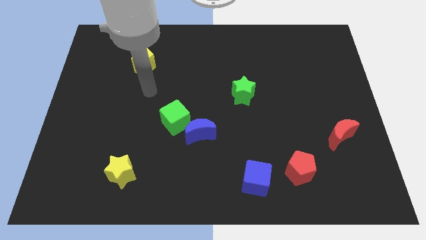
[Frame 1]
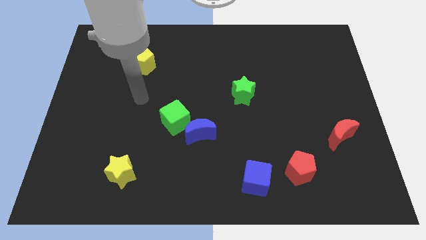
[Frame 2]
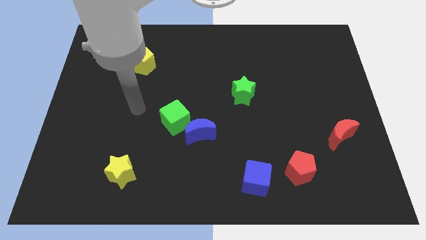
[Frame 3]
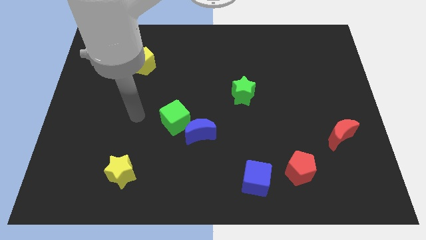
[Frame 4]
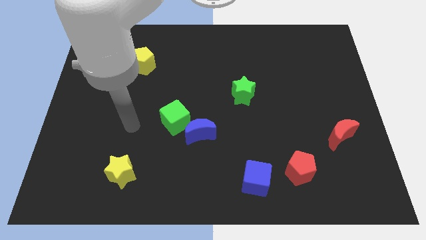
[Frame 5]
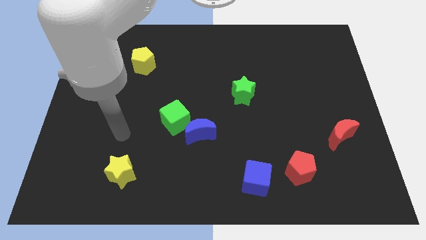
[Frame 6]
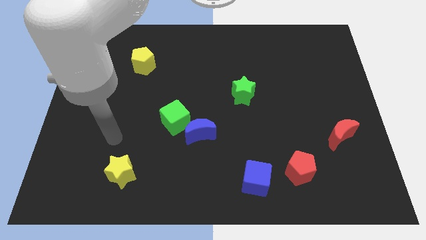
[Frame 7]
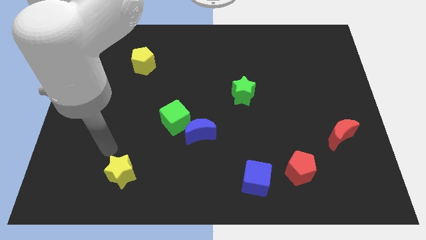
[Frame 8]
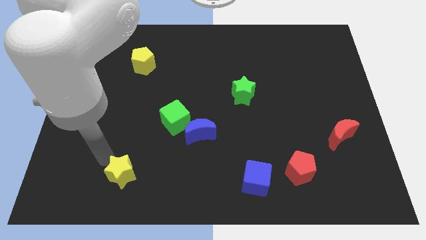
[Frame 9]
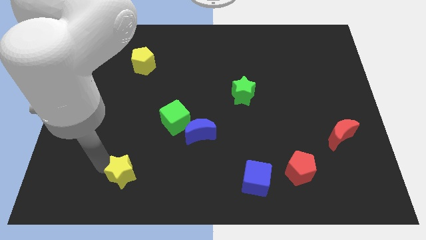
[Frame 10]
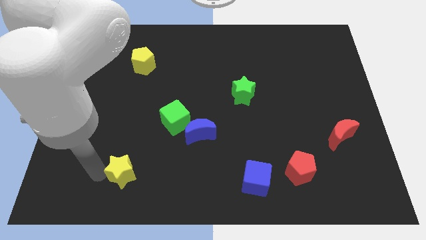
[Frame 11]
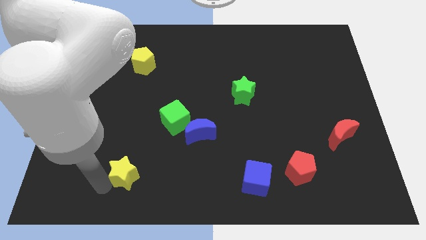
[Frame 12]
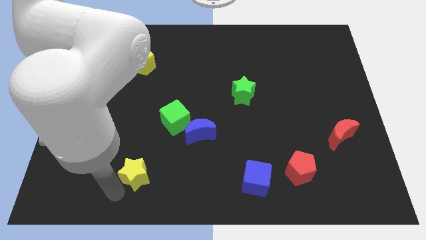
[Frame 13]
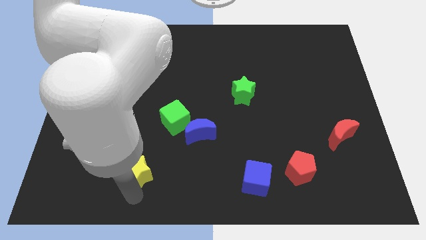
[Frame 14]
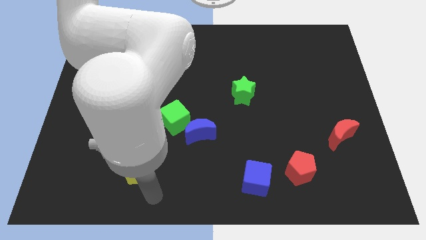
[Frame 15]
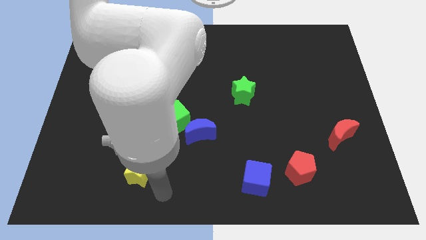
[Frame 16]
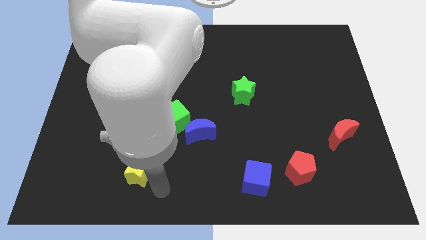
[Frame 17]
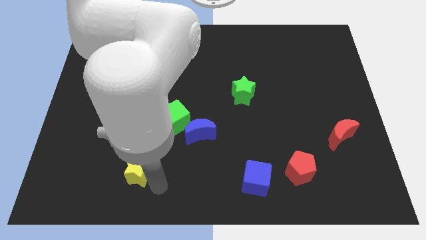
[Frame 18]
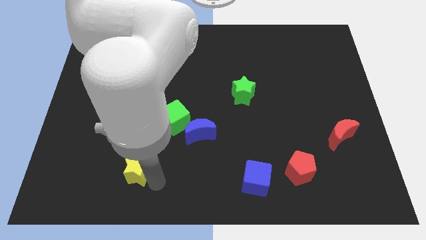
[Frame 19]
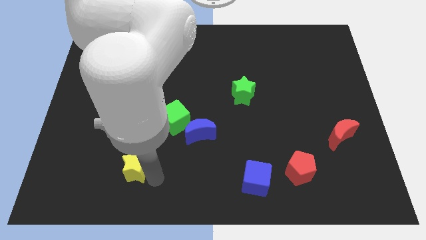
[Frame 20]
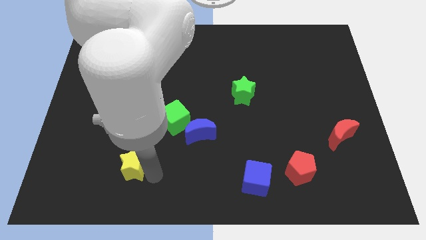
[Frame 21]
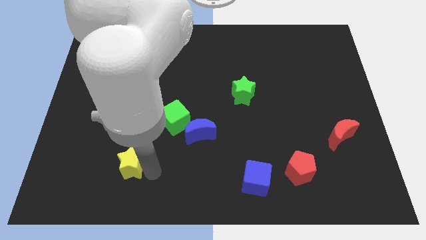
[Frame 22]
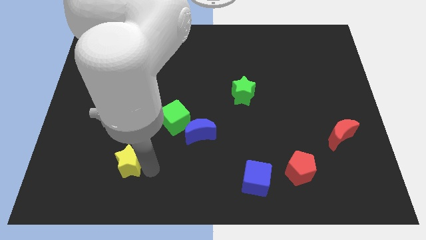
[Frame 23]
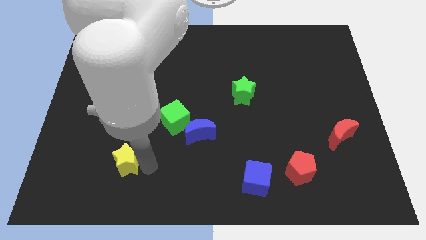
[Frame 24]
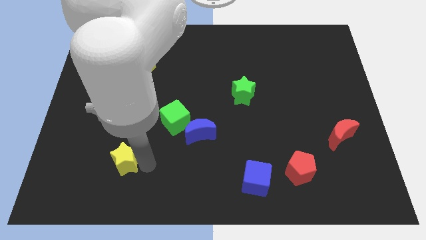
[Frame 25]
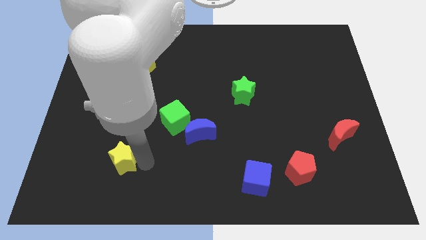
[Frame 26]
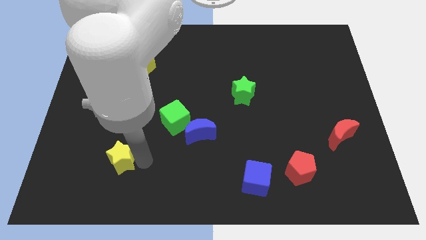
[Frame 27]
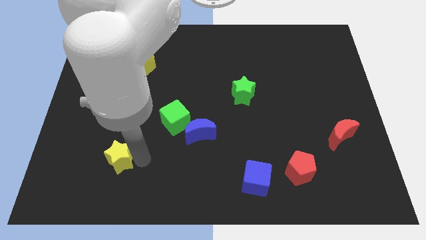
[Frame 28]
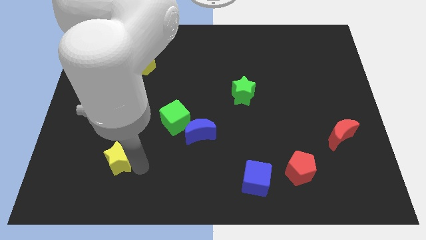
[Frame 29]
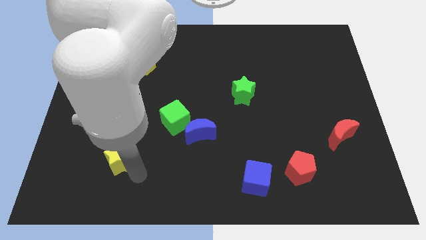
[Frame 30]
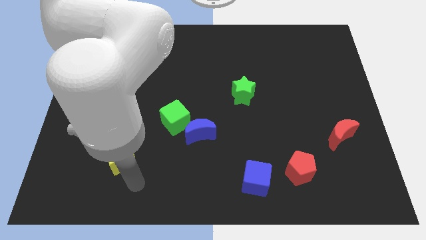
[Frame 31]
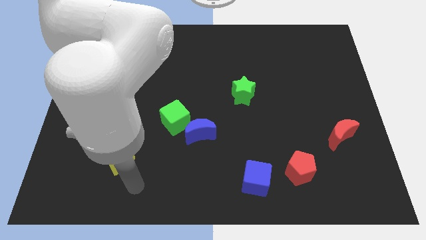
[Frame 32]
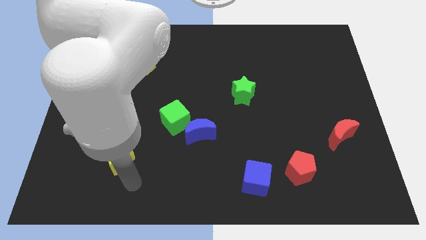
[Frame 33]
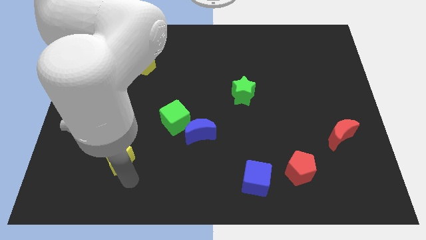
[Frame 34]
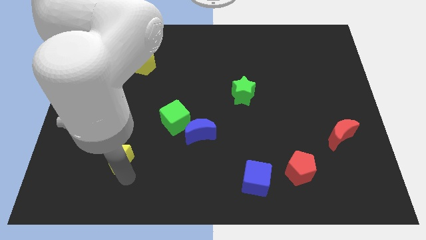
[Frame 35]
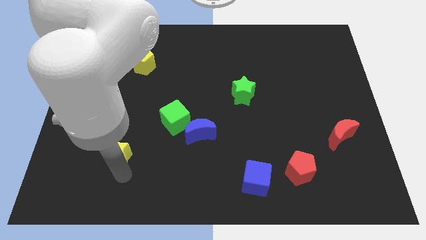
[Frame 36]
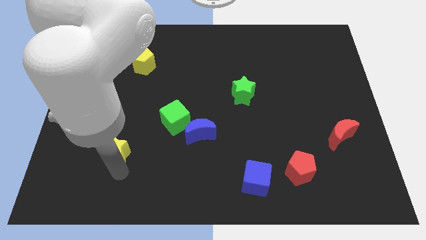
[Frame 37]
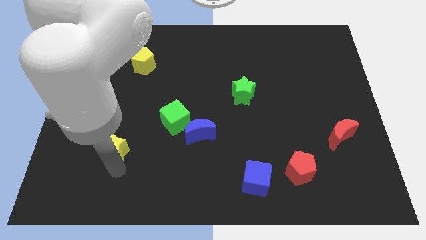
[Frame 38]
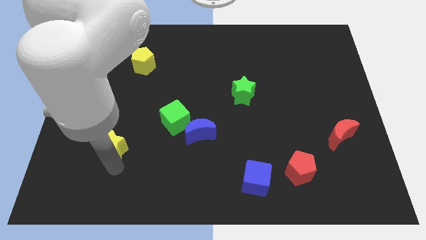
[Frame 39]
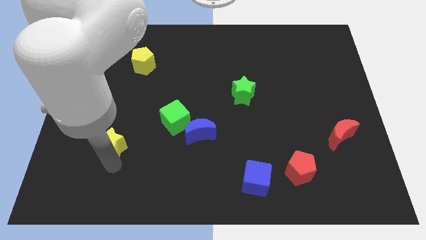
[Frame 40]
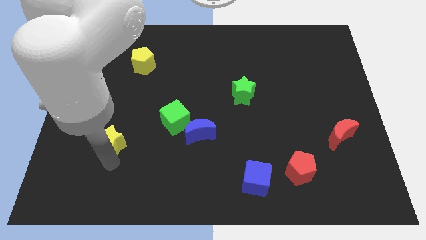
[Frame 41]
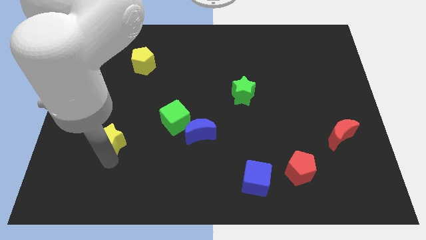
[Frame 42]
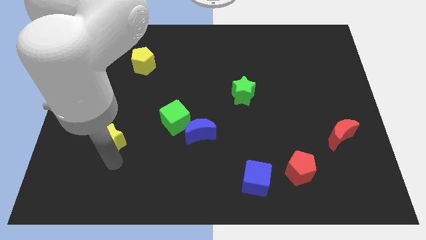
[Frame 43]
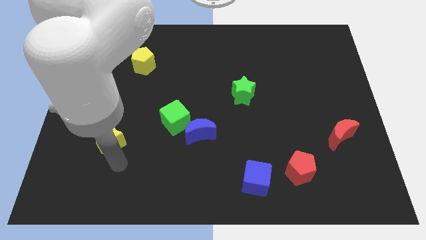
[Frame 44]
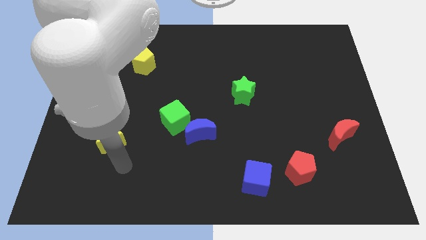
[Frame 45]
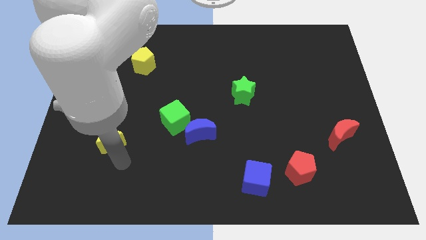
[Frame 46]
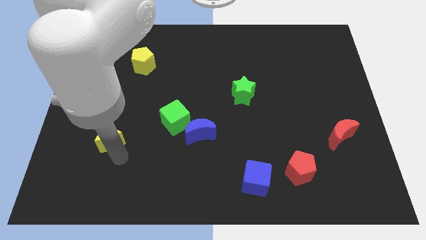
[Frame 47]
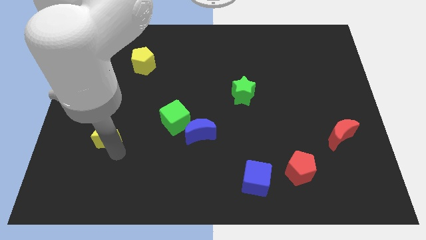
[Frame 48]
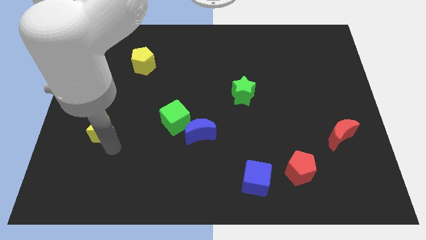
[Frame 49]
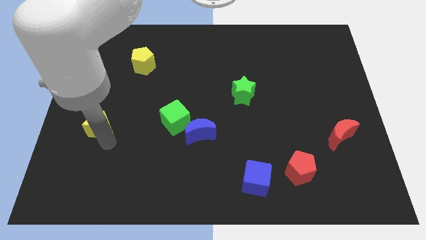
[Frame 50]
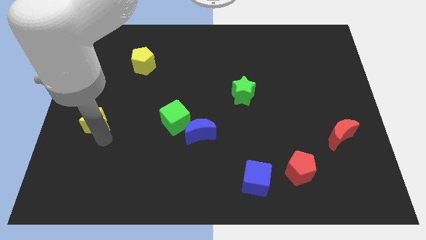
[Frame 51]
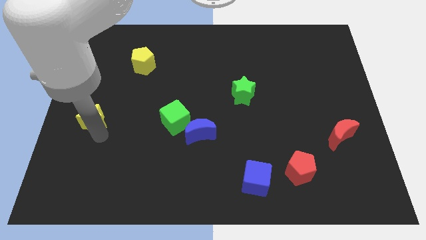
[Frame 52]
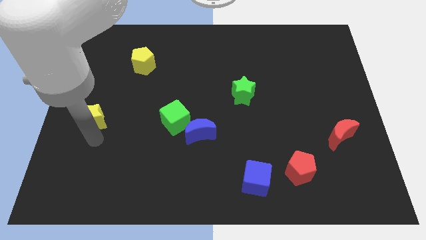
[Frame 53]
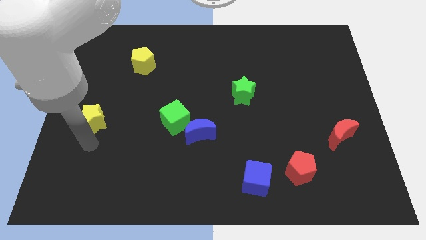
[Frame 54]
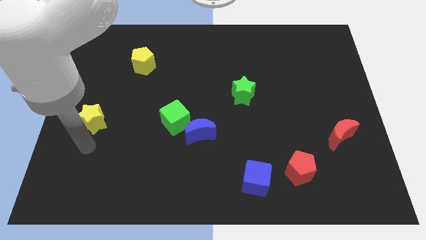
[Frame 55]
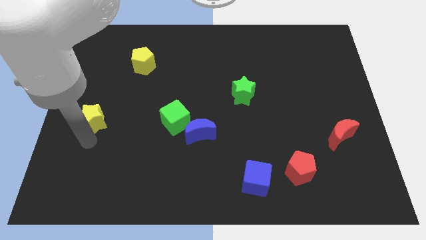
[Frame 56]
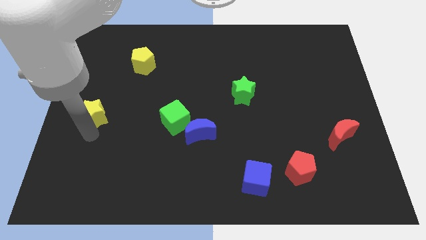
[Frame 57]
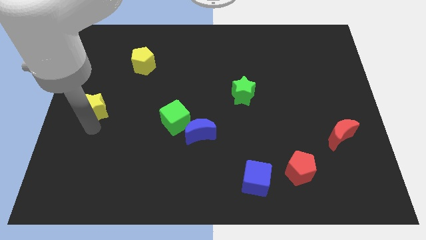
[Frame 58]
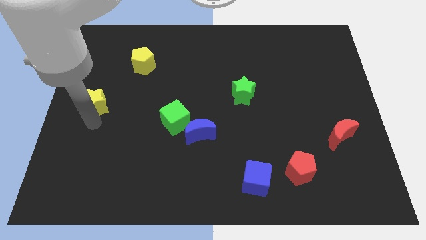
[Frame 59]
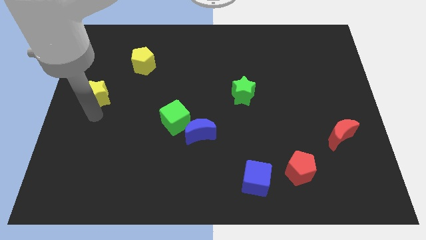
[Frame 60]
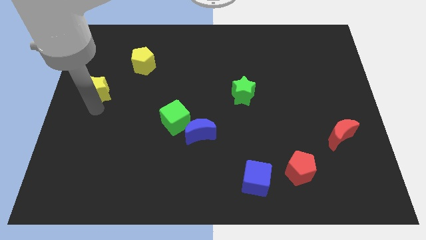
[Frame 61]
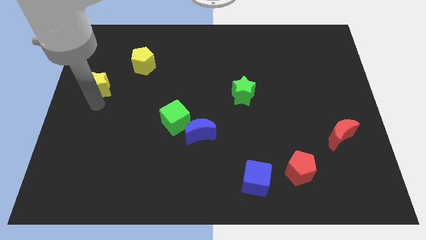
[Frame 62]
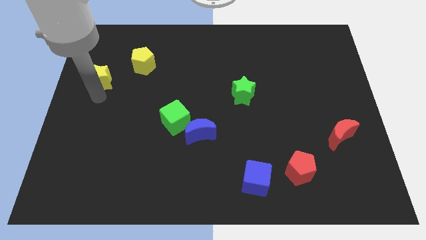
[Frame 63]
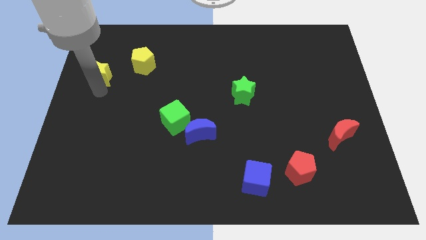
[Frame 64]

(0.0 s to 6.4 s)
move the yellow star to the left of the yellow pentagon

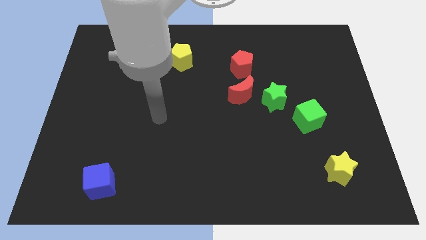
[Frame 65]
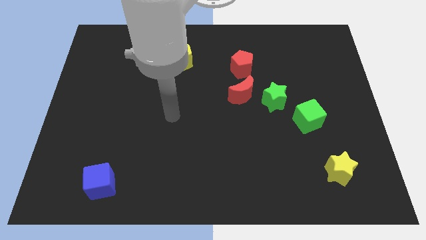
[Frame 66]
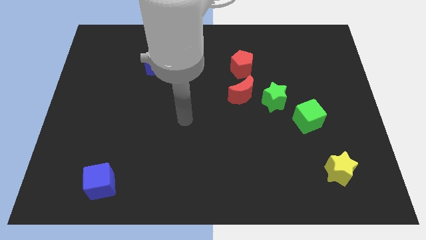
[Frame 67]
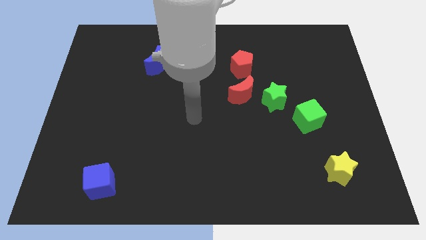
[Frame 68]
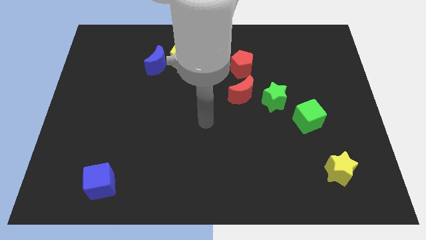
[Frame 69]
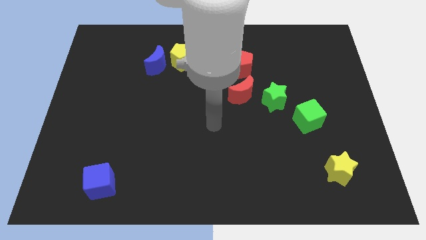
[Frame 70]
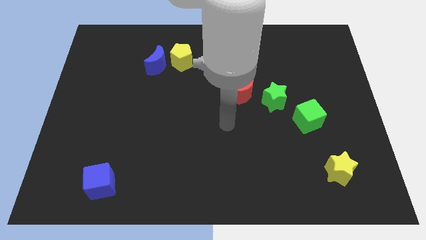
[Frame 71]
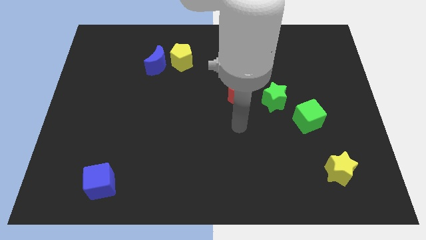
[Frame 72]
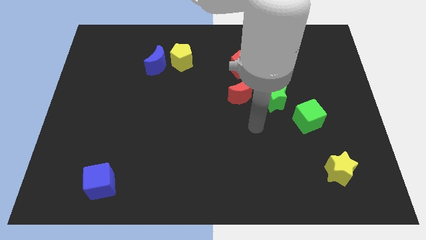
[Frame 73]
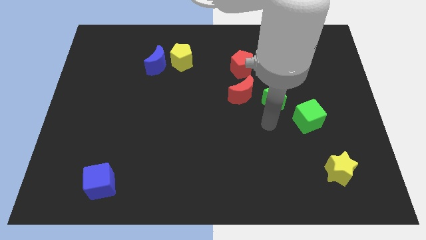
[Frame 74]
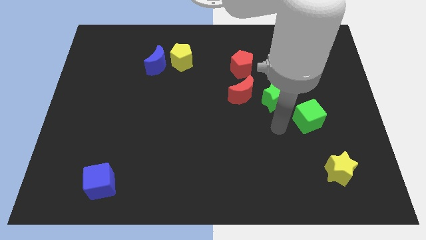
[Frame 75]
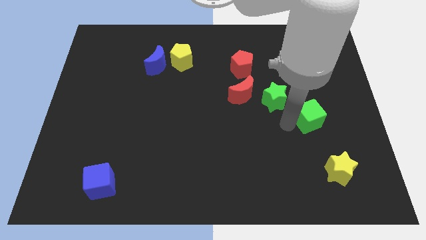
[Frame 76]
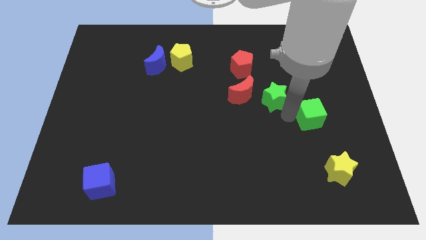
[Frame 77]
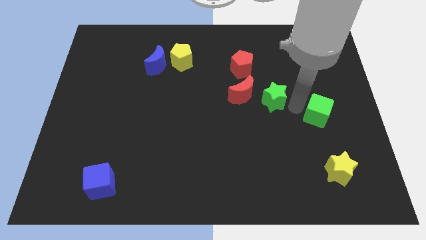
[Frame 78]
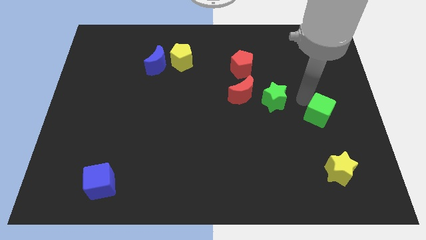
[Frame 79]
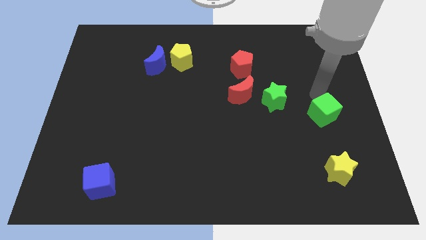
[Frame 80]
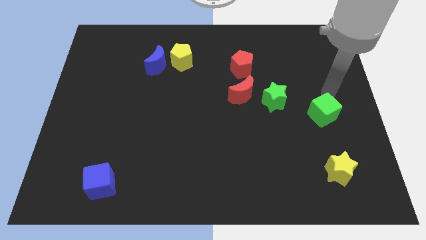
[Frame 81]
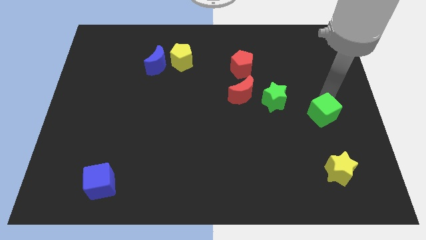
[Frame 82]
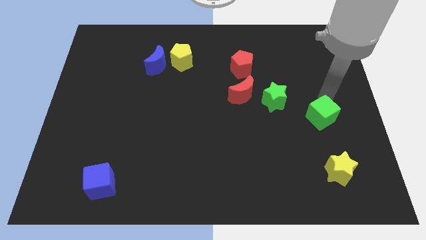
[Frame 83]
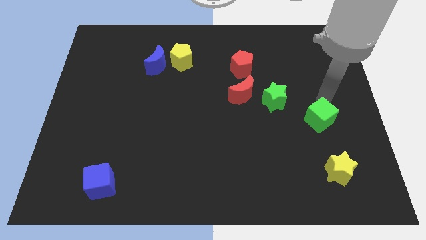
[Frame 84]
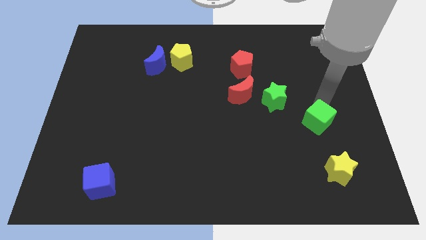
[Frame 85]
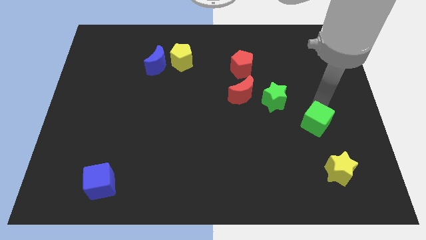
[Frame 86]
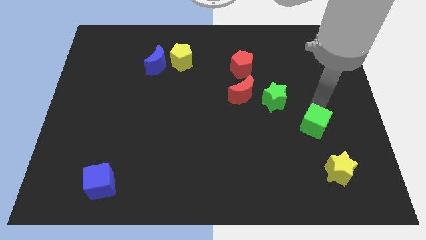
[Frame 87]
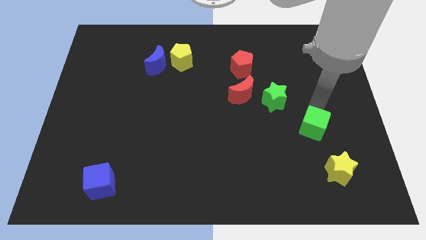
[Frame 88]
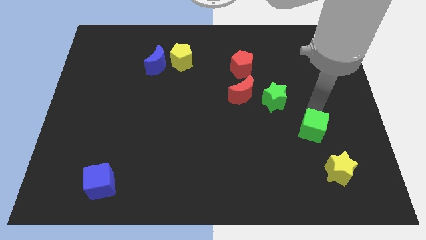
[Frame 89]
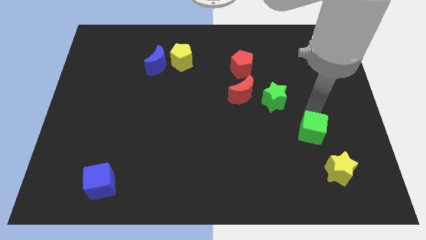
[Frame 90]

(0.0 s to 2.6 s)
move the green cube to the top left side of the yellow star
